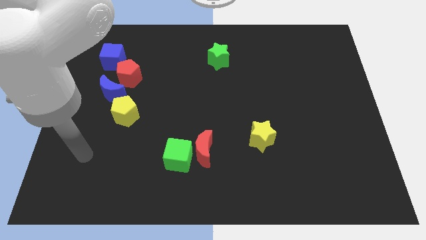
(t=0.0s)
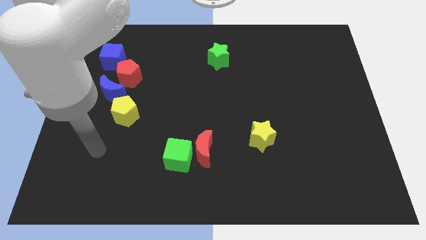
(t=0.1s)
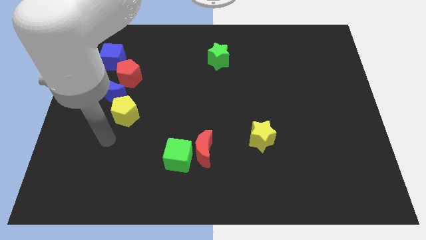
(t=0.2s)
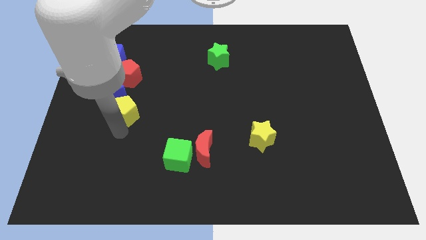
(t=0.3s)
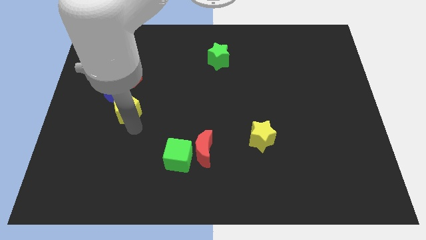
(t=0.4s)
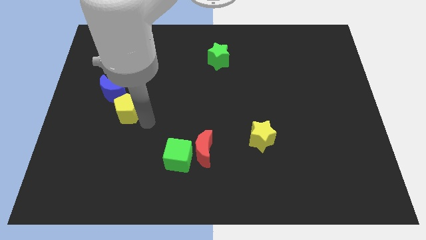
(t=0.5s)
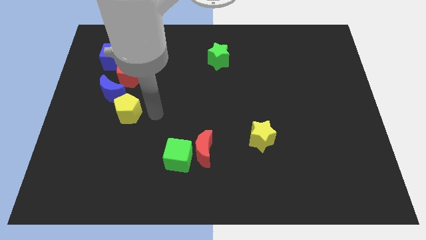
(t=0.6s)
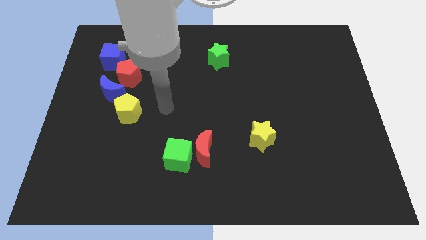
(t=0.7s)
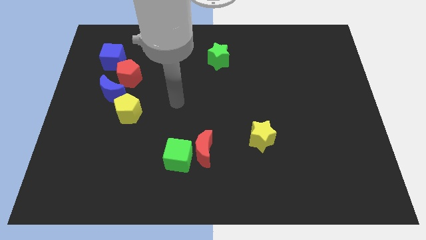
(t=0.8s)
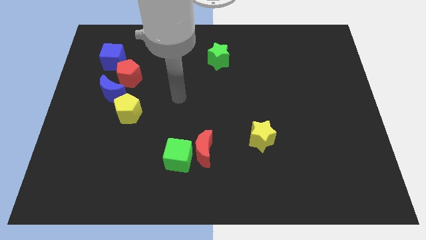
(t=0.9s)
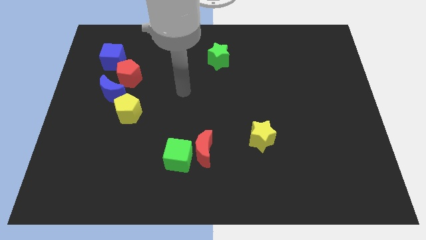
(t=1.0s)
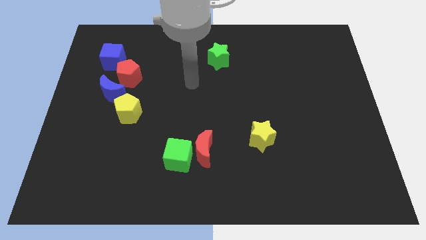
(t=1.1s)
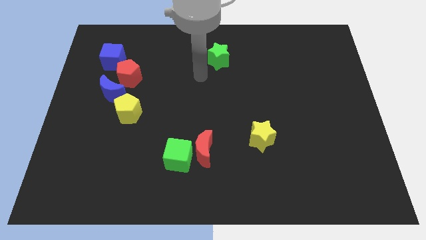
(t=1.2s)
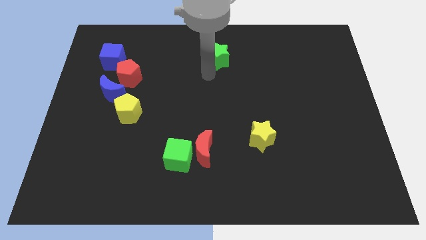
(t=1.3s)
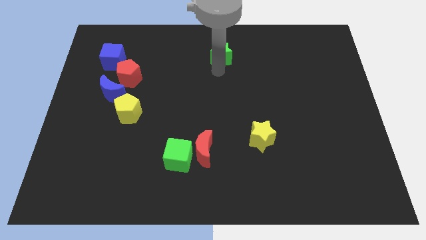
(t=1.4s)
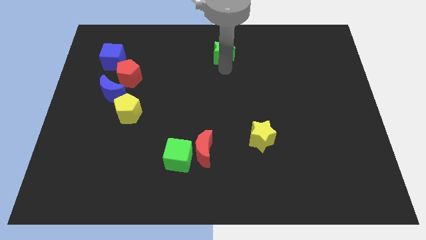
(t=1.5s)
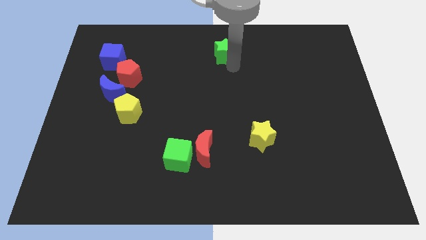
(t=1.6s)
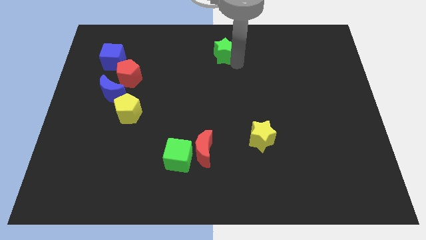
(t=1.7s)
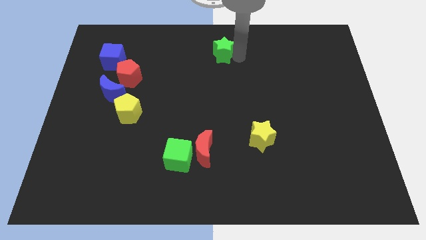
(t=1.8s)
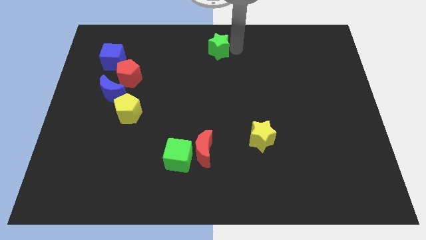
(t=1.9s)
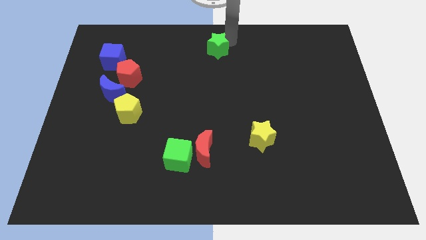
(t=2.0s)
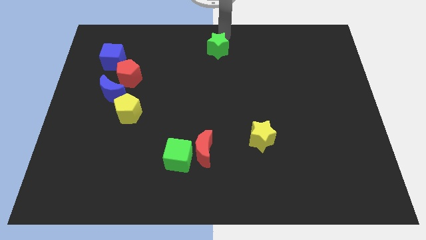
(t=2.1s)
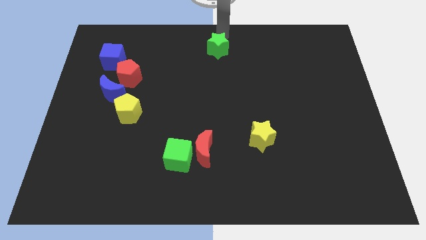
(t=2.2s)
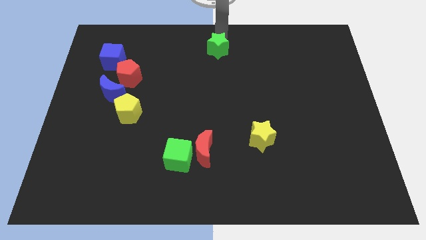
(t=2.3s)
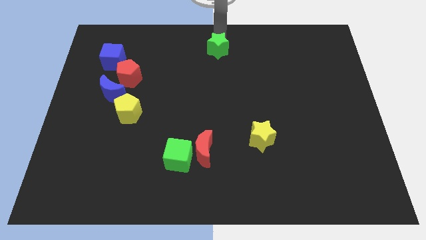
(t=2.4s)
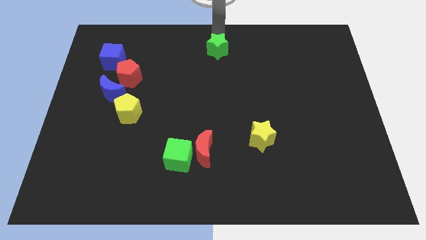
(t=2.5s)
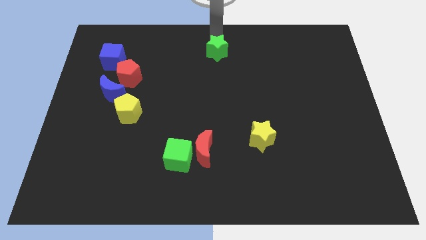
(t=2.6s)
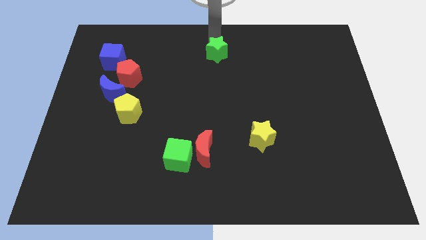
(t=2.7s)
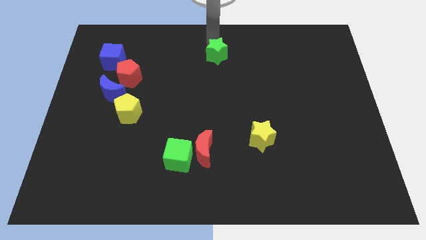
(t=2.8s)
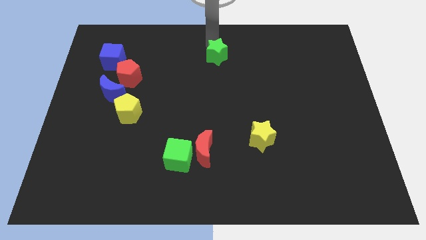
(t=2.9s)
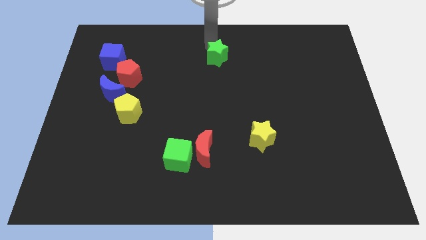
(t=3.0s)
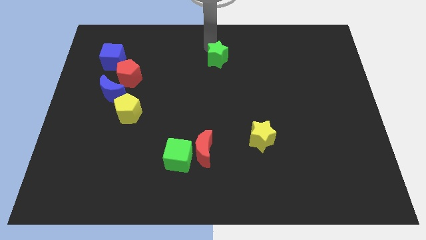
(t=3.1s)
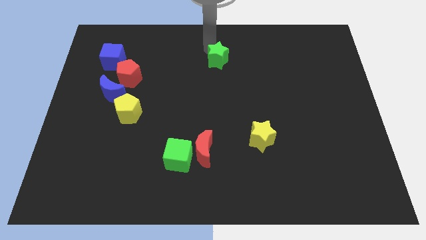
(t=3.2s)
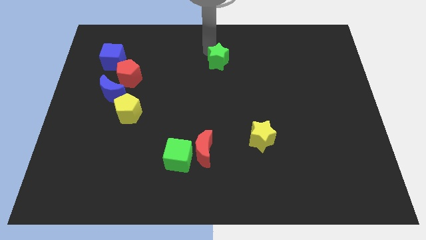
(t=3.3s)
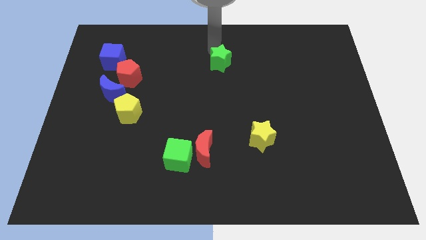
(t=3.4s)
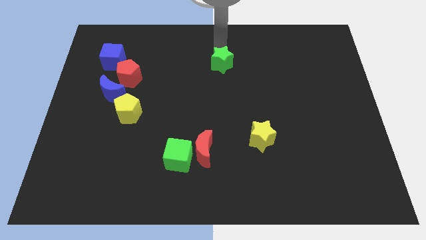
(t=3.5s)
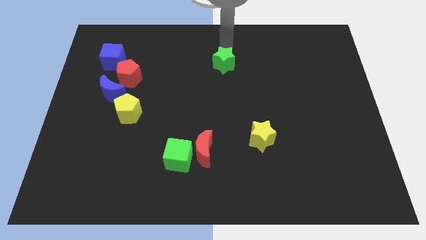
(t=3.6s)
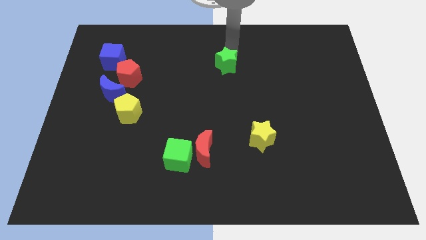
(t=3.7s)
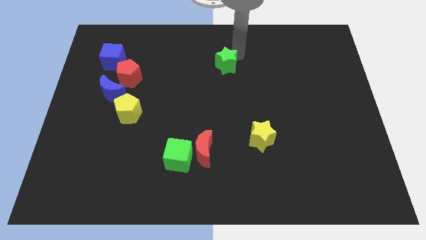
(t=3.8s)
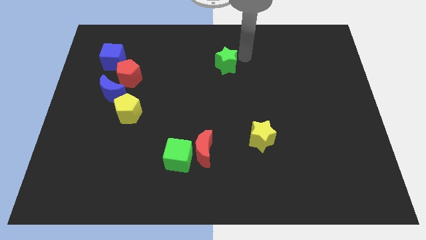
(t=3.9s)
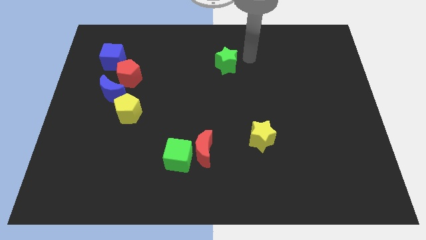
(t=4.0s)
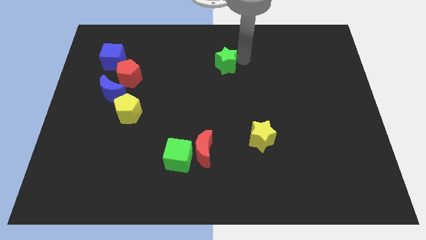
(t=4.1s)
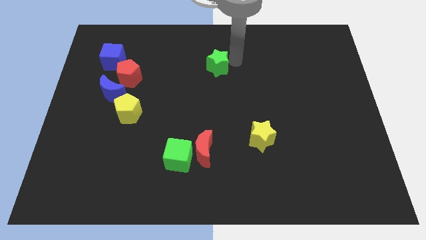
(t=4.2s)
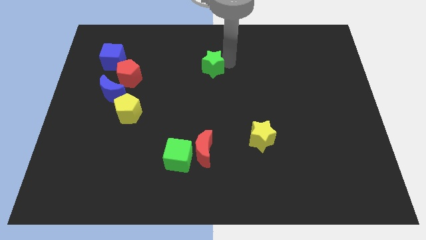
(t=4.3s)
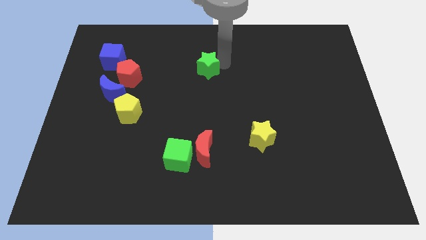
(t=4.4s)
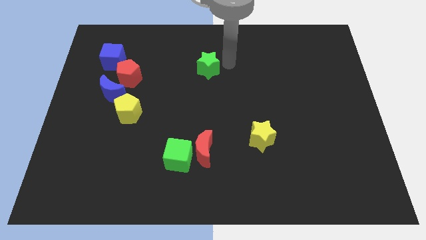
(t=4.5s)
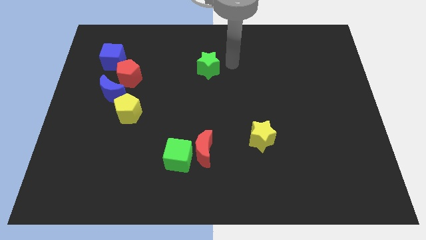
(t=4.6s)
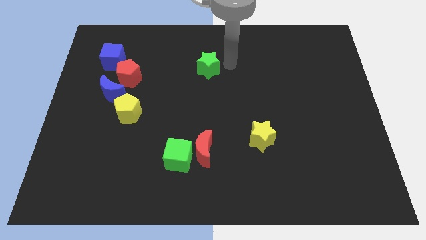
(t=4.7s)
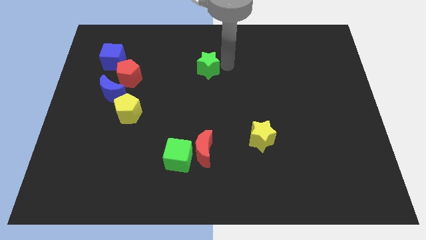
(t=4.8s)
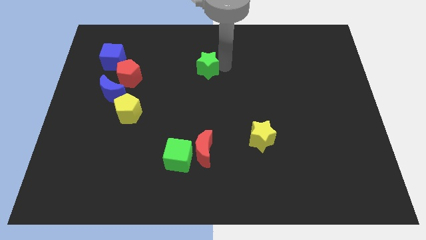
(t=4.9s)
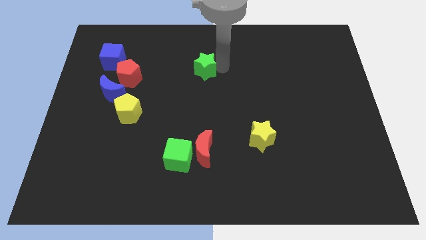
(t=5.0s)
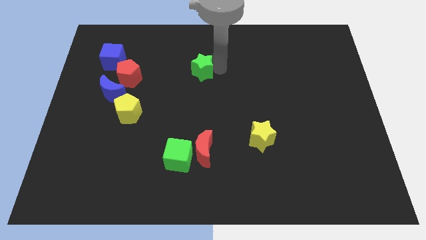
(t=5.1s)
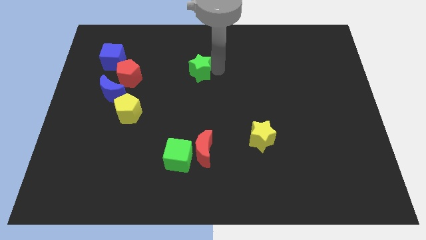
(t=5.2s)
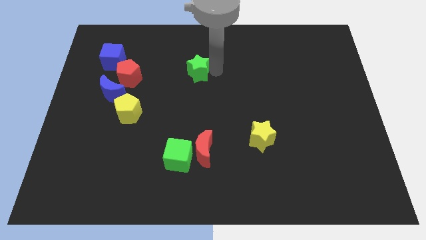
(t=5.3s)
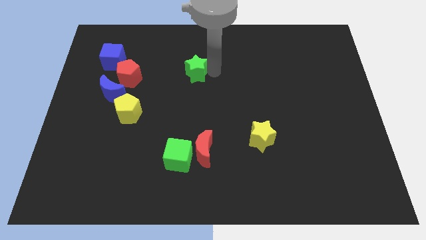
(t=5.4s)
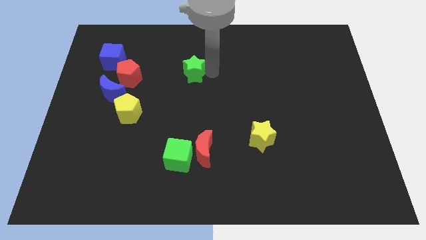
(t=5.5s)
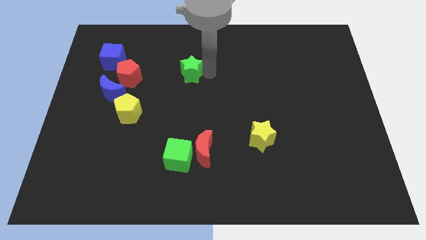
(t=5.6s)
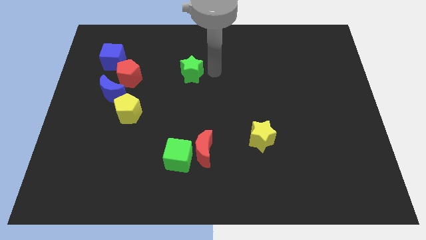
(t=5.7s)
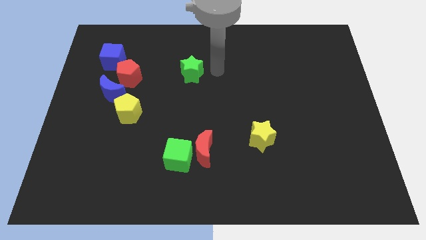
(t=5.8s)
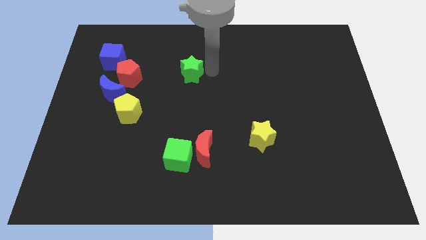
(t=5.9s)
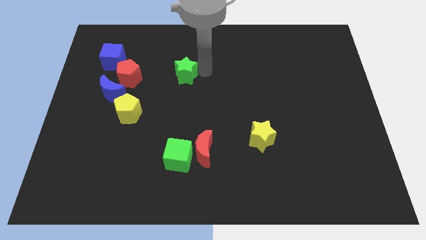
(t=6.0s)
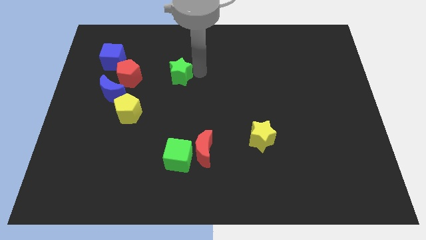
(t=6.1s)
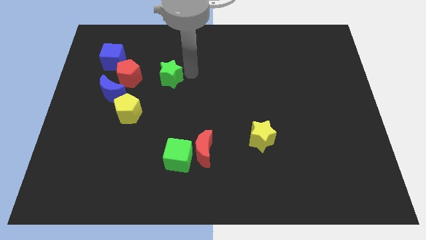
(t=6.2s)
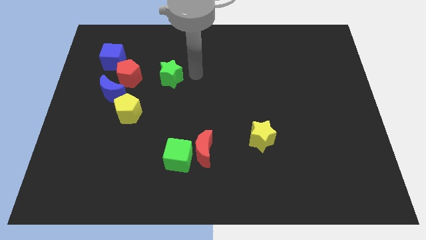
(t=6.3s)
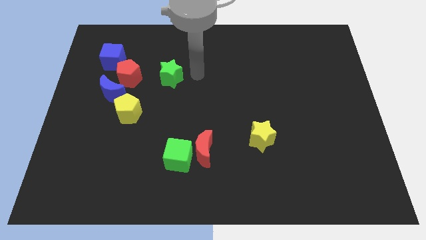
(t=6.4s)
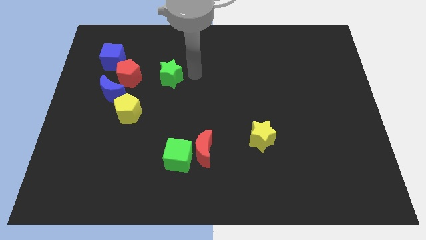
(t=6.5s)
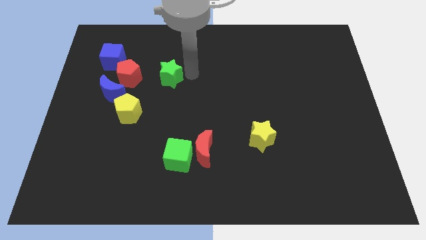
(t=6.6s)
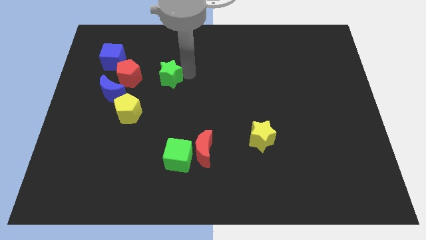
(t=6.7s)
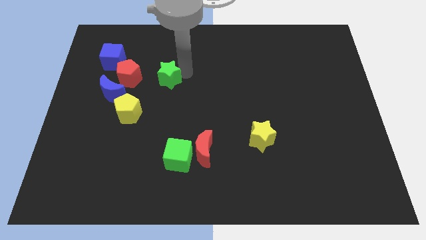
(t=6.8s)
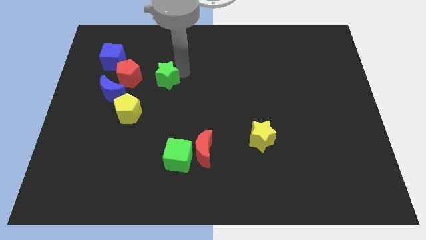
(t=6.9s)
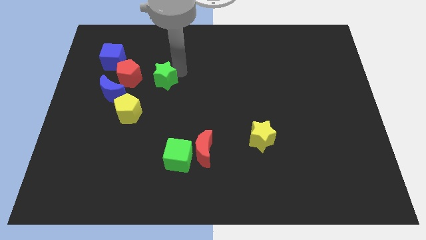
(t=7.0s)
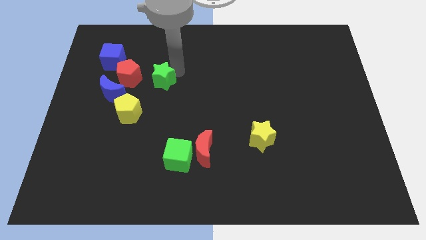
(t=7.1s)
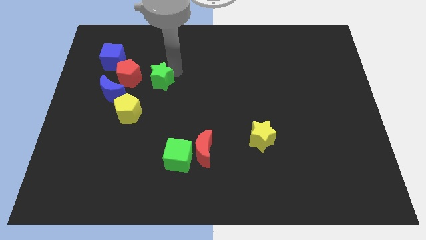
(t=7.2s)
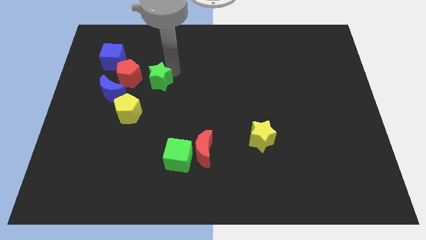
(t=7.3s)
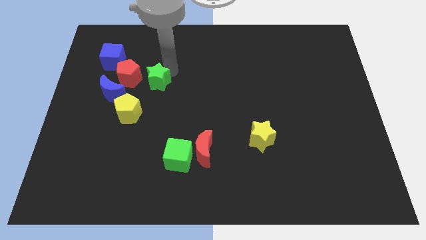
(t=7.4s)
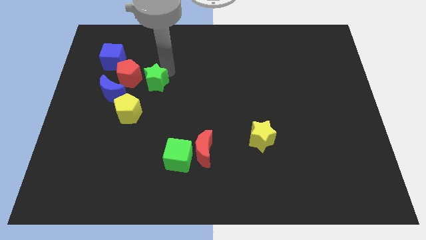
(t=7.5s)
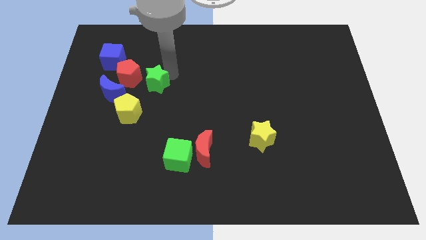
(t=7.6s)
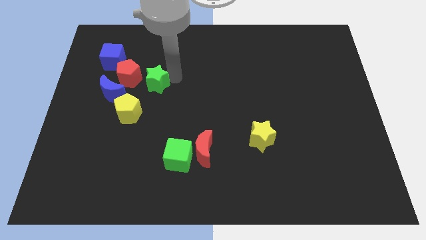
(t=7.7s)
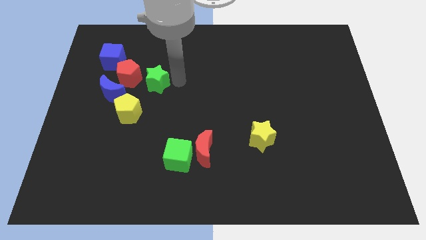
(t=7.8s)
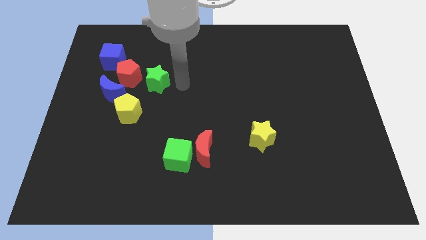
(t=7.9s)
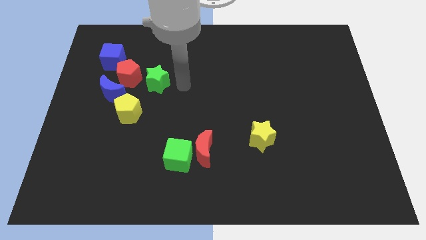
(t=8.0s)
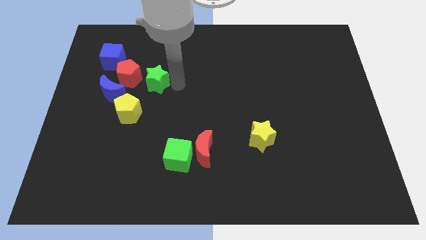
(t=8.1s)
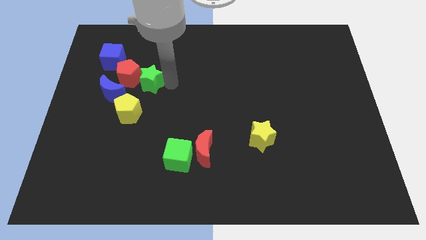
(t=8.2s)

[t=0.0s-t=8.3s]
move the green star close to the red pentagon
